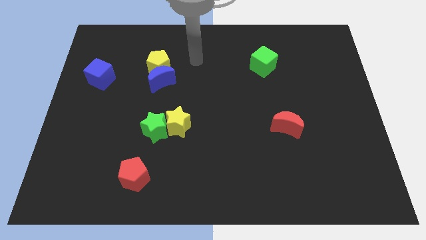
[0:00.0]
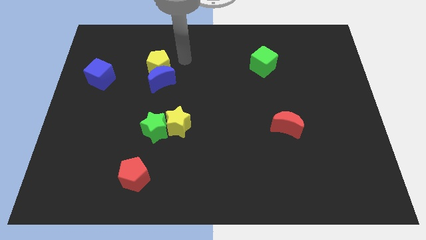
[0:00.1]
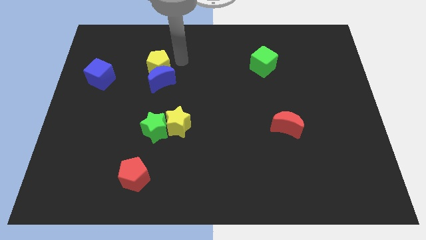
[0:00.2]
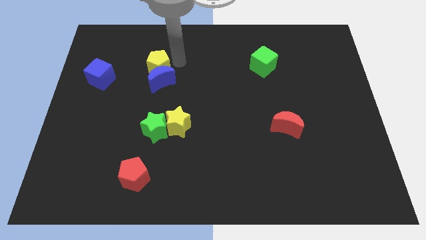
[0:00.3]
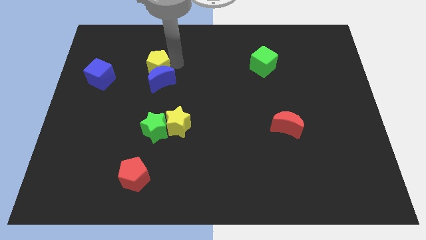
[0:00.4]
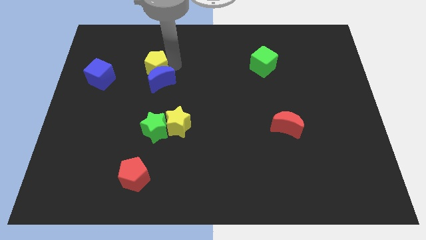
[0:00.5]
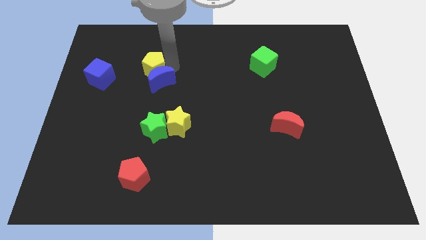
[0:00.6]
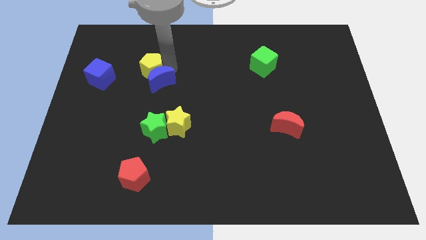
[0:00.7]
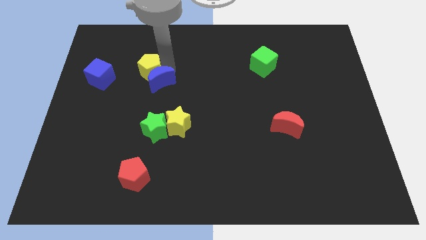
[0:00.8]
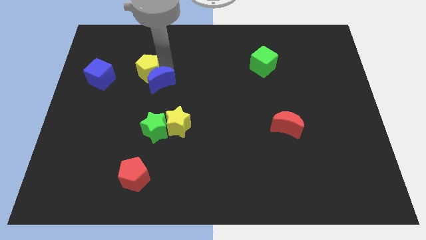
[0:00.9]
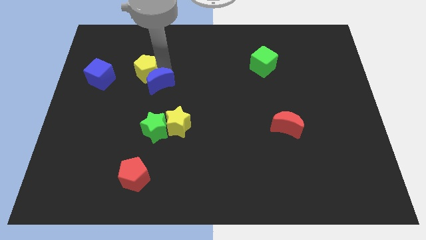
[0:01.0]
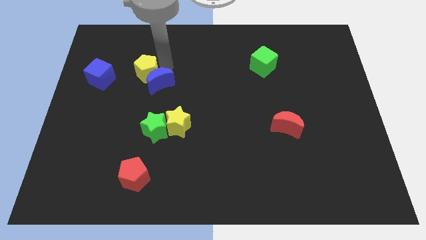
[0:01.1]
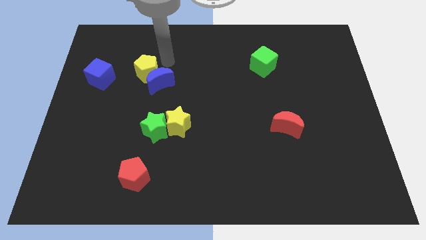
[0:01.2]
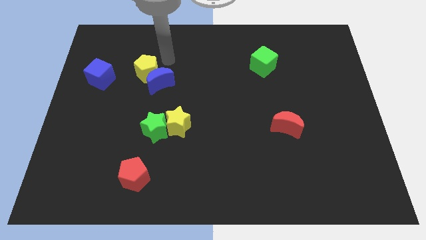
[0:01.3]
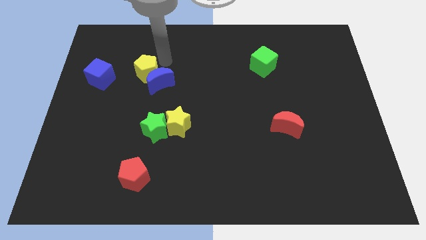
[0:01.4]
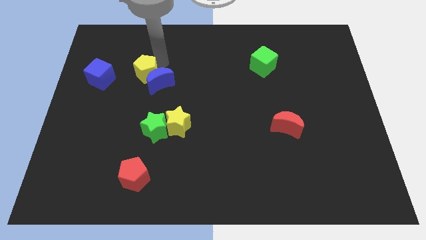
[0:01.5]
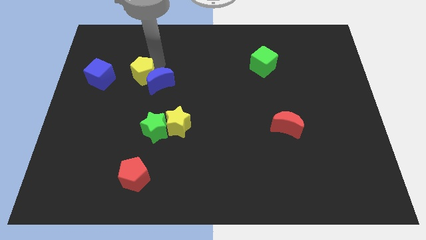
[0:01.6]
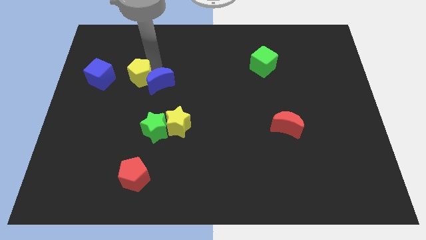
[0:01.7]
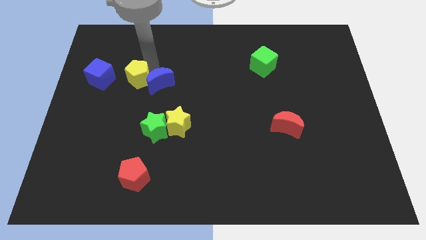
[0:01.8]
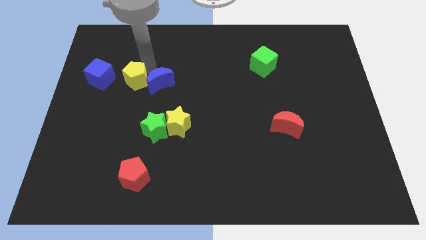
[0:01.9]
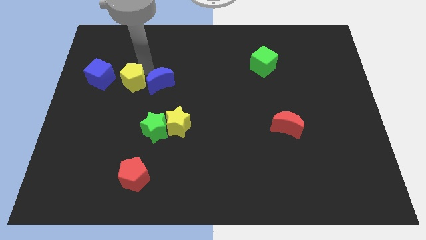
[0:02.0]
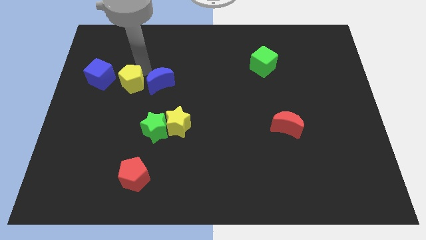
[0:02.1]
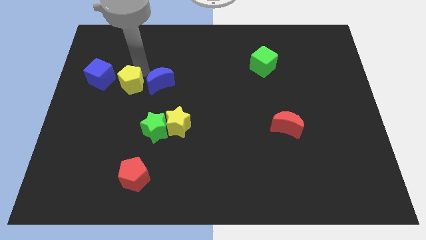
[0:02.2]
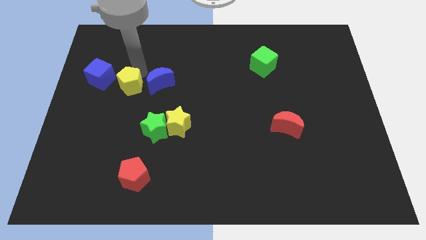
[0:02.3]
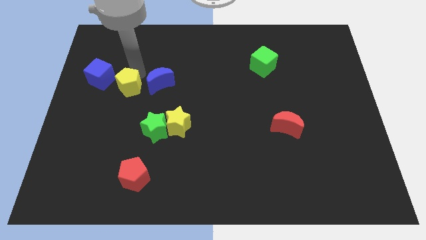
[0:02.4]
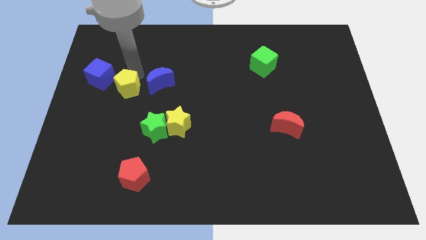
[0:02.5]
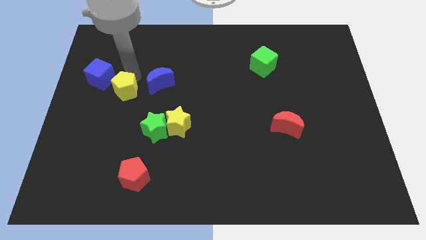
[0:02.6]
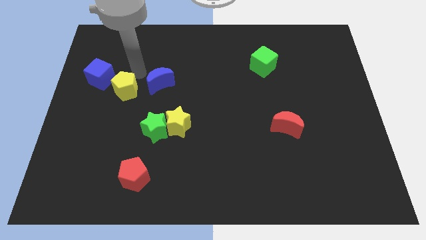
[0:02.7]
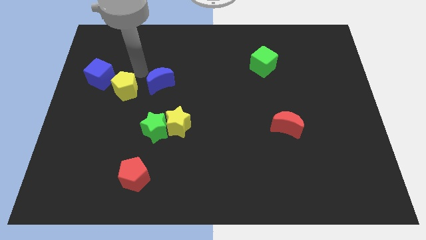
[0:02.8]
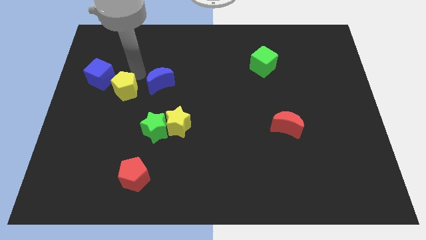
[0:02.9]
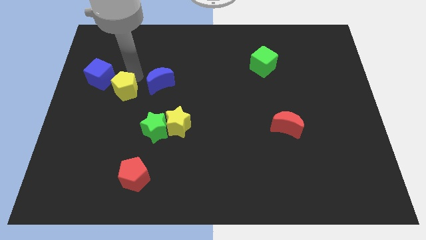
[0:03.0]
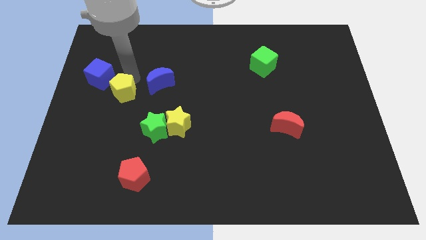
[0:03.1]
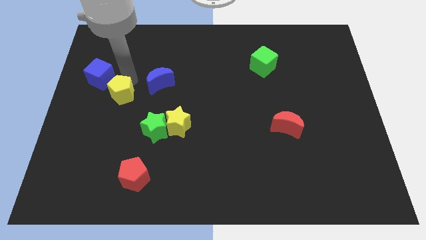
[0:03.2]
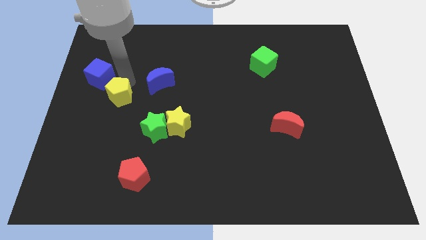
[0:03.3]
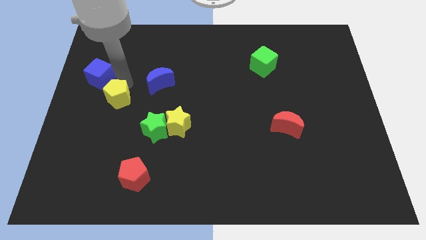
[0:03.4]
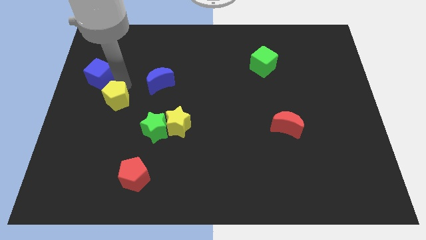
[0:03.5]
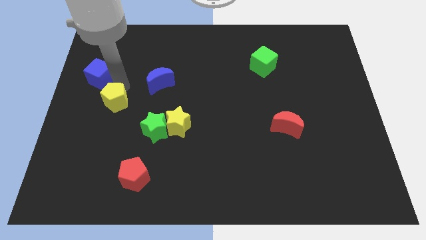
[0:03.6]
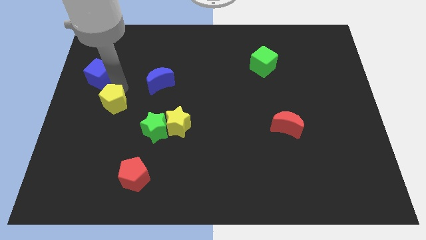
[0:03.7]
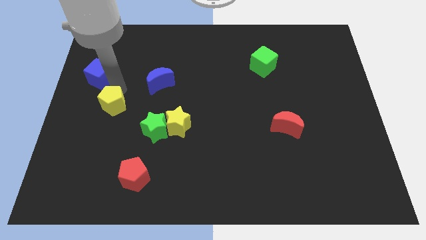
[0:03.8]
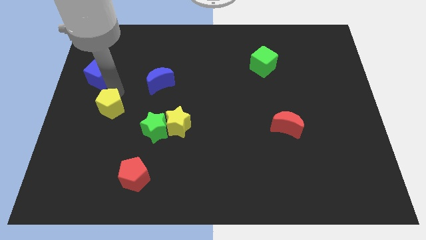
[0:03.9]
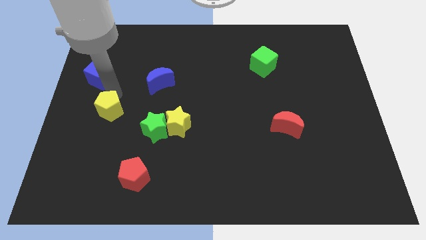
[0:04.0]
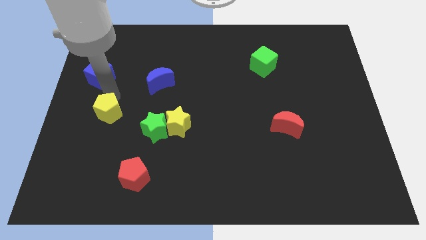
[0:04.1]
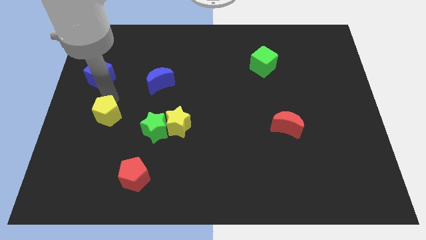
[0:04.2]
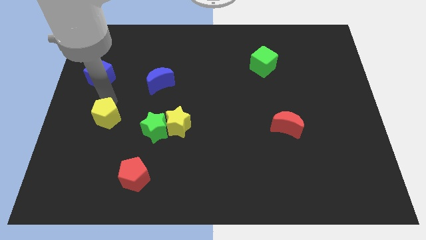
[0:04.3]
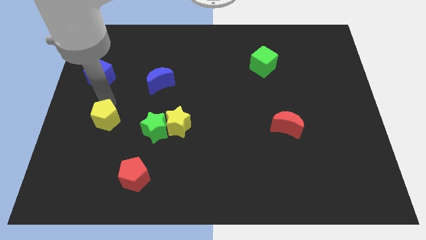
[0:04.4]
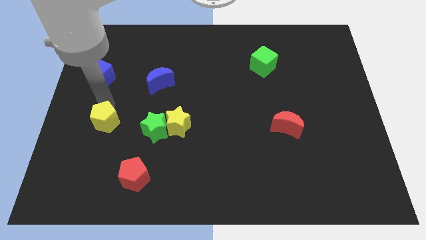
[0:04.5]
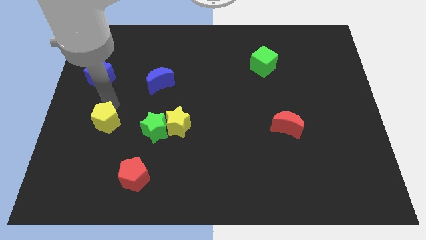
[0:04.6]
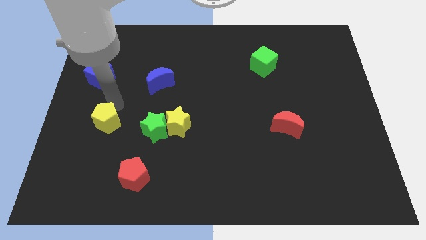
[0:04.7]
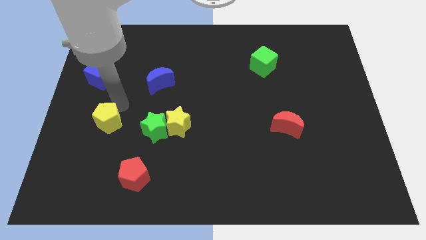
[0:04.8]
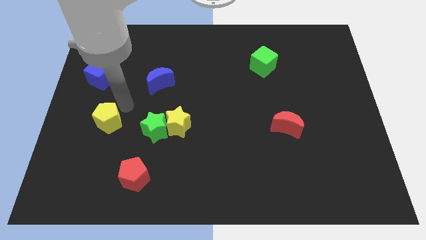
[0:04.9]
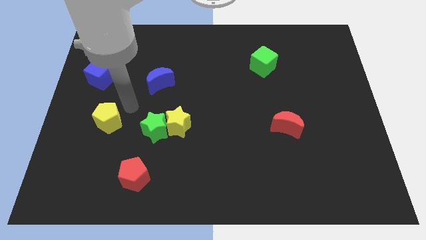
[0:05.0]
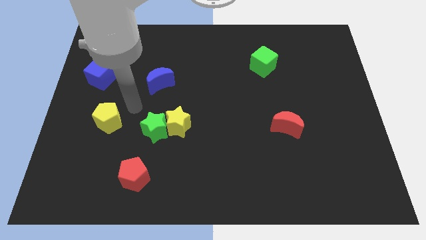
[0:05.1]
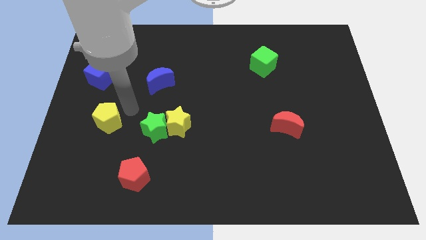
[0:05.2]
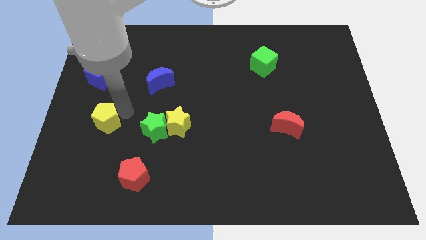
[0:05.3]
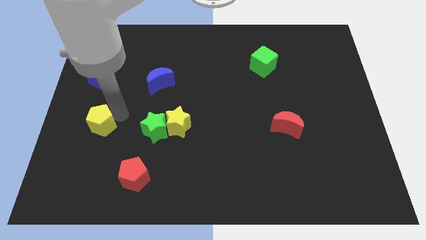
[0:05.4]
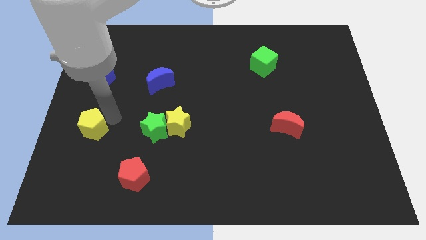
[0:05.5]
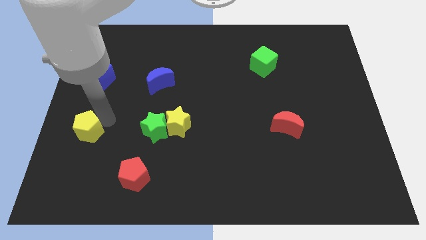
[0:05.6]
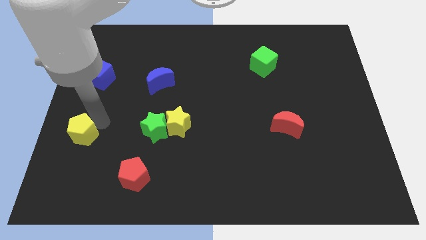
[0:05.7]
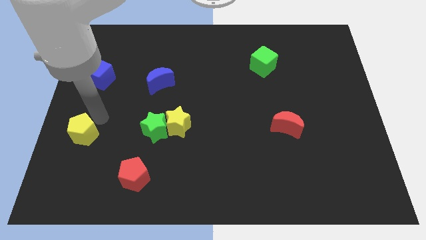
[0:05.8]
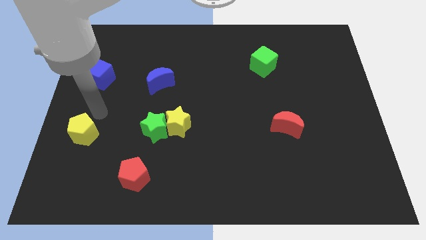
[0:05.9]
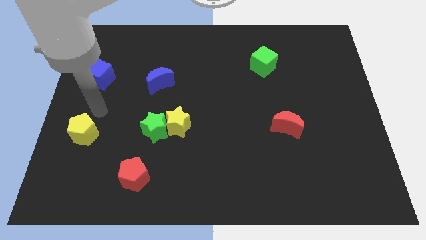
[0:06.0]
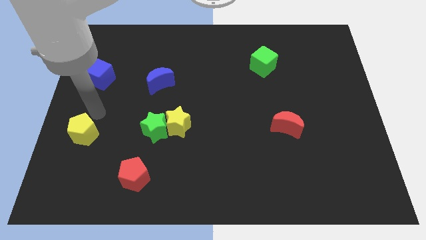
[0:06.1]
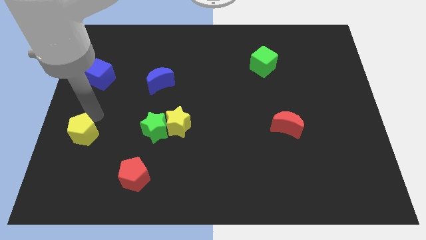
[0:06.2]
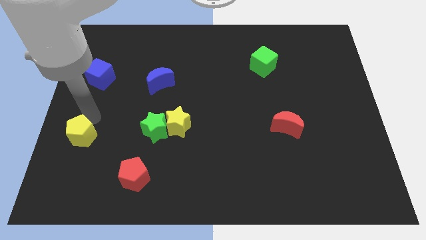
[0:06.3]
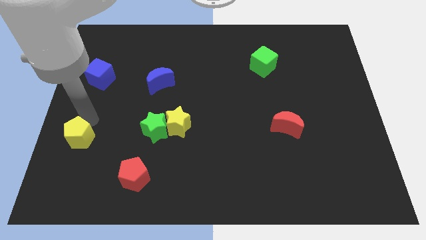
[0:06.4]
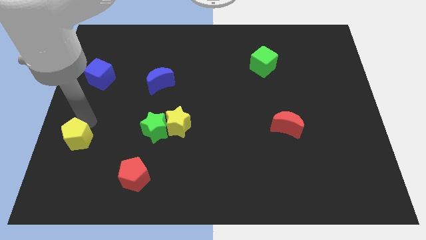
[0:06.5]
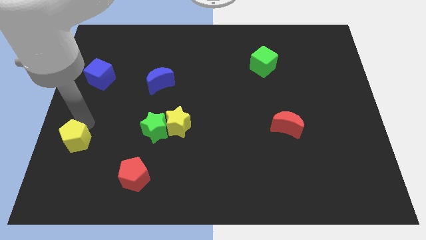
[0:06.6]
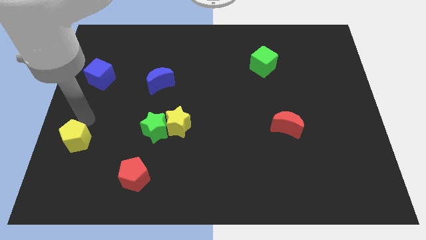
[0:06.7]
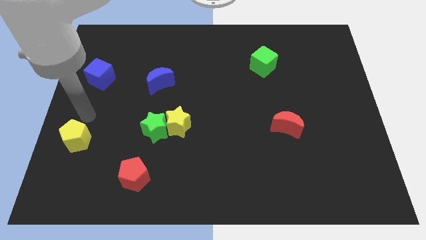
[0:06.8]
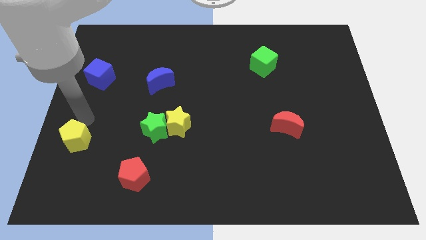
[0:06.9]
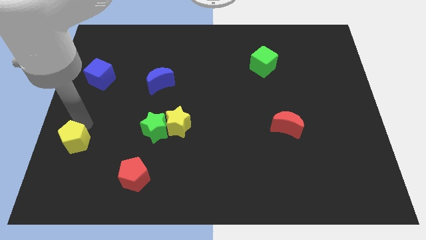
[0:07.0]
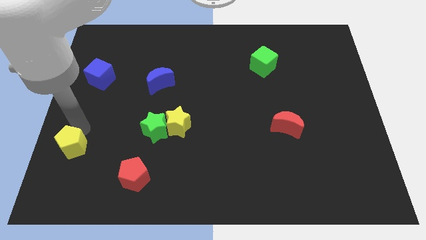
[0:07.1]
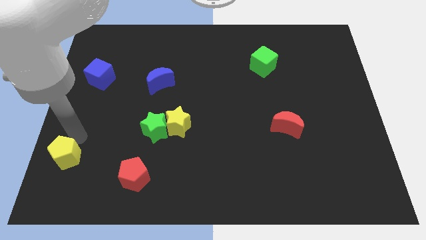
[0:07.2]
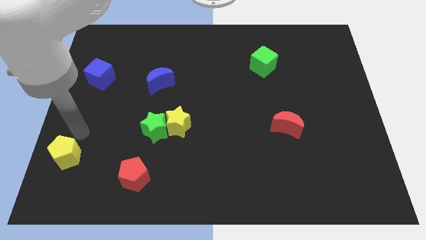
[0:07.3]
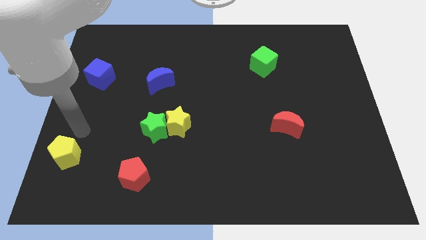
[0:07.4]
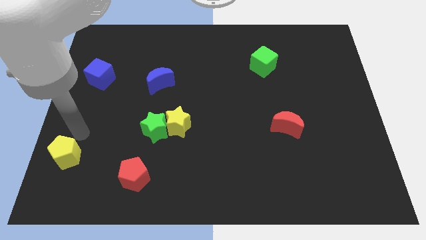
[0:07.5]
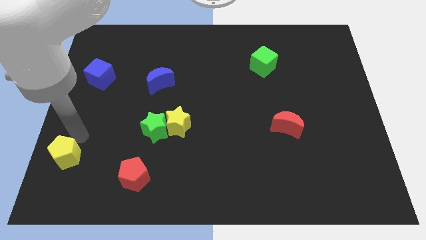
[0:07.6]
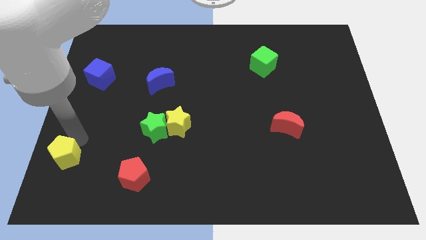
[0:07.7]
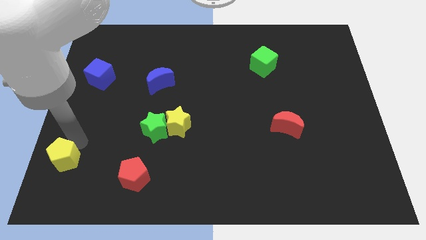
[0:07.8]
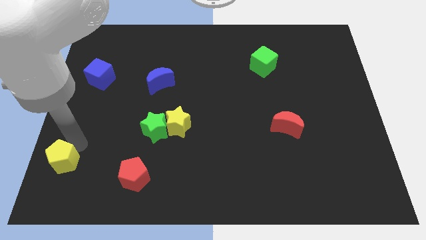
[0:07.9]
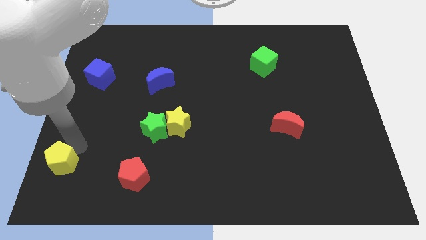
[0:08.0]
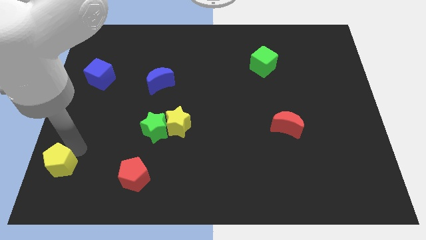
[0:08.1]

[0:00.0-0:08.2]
move the yellow pentagon to the bottom left
